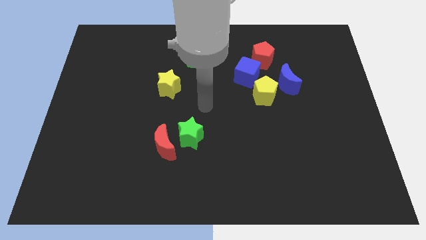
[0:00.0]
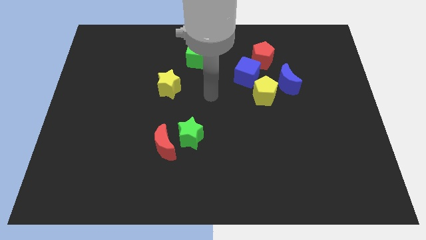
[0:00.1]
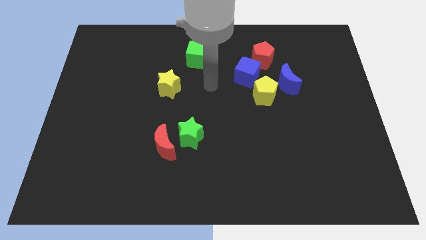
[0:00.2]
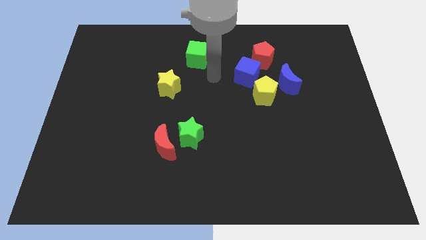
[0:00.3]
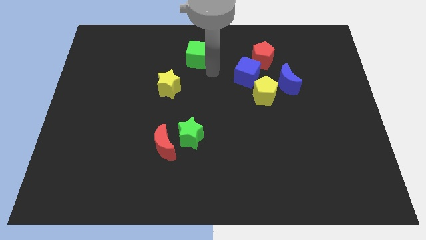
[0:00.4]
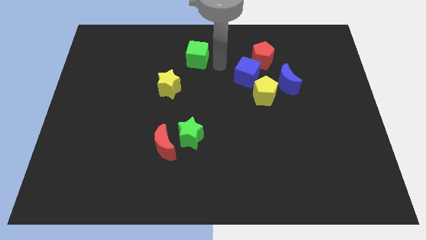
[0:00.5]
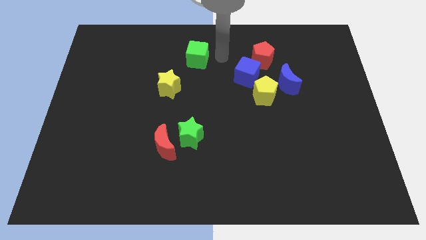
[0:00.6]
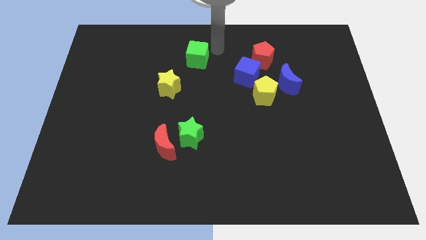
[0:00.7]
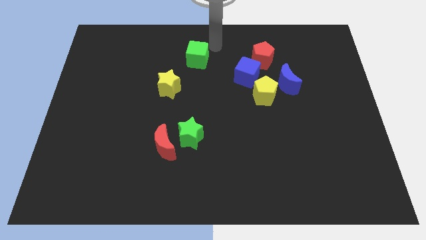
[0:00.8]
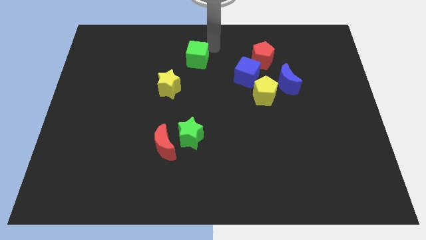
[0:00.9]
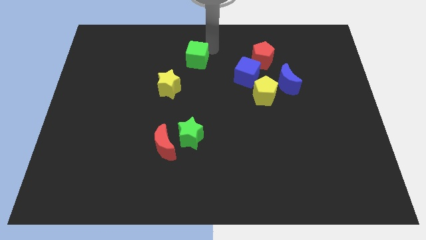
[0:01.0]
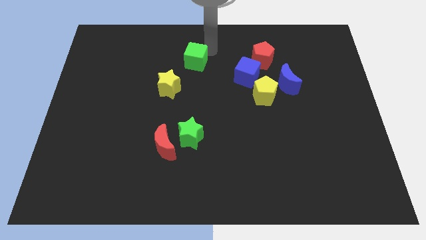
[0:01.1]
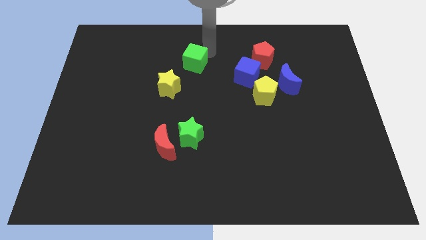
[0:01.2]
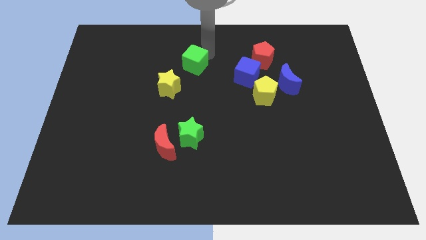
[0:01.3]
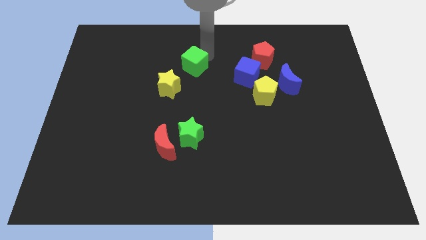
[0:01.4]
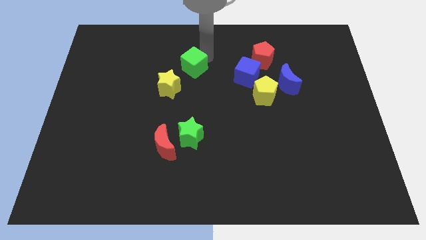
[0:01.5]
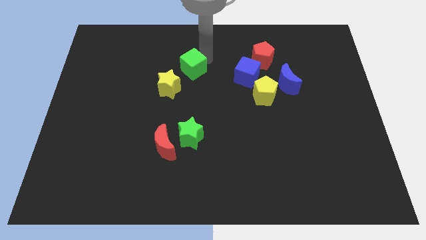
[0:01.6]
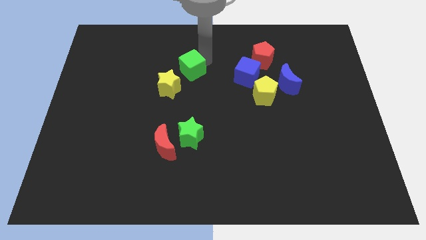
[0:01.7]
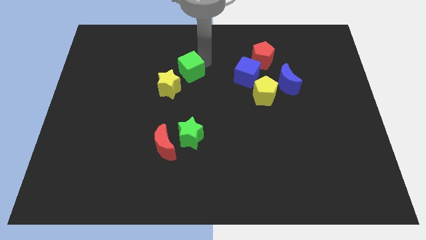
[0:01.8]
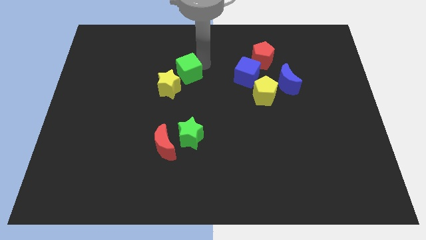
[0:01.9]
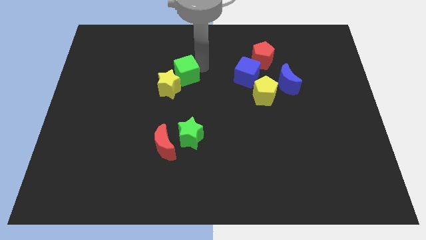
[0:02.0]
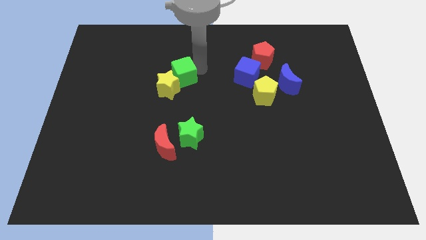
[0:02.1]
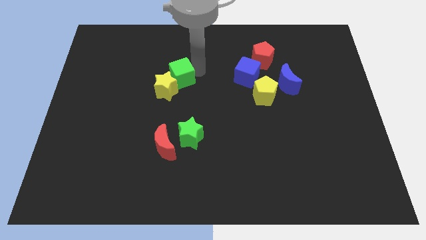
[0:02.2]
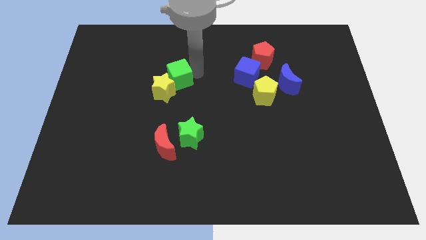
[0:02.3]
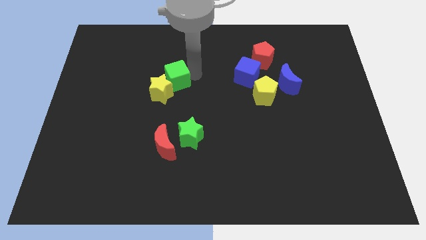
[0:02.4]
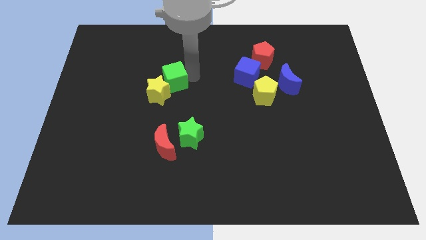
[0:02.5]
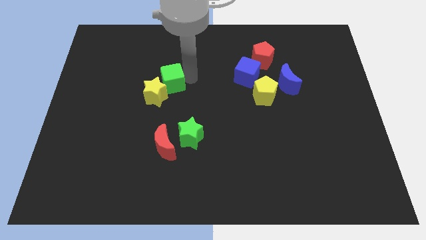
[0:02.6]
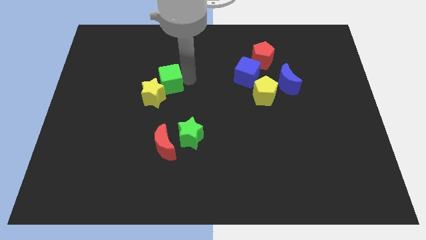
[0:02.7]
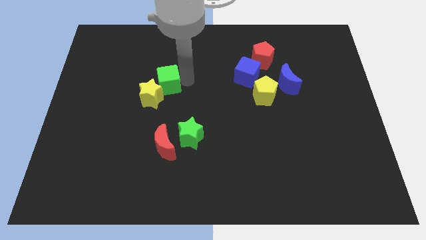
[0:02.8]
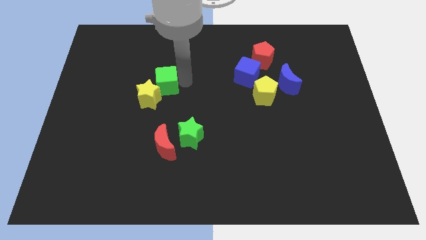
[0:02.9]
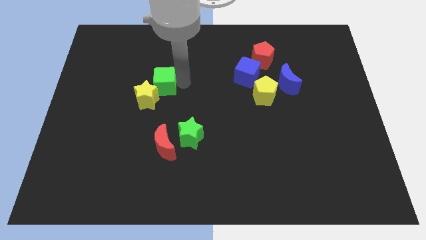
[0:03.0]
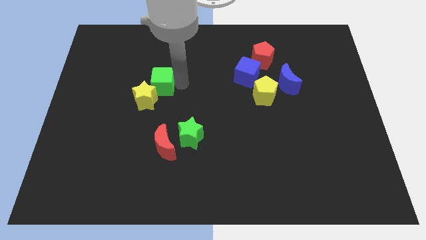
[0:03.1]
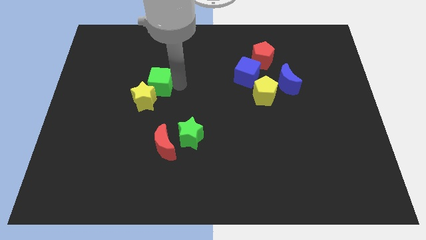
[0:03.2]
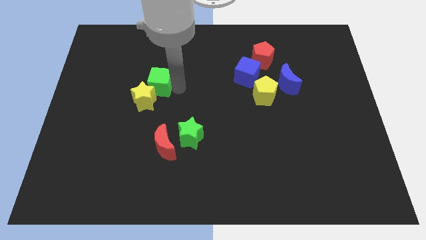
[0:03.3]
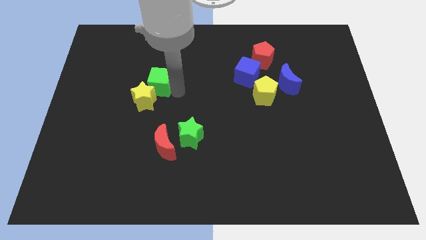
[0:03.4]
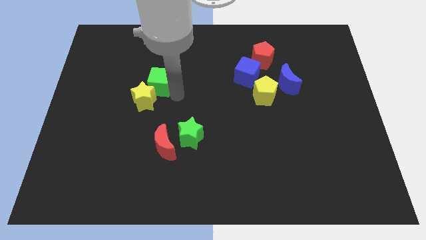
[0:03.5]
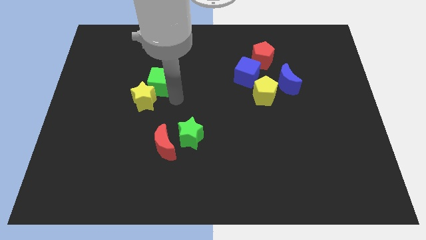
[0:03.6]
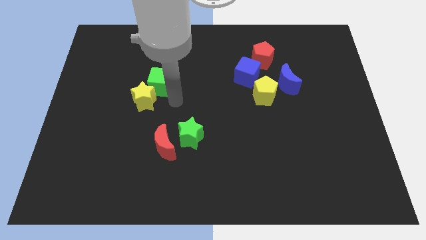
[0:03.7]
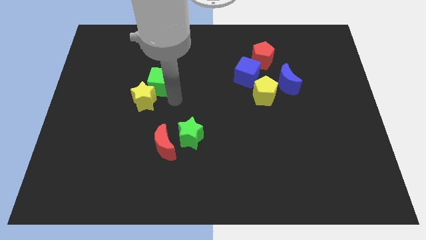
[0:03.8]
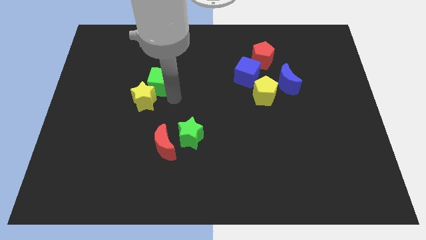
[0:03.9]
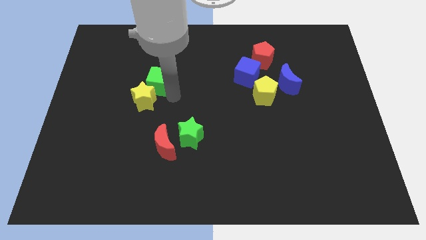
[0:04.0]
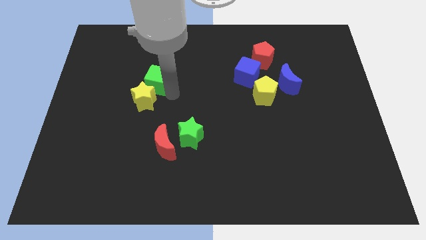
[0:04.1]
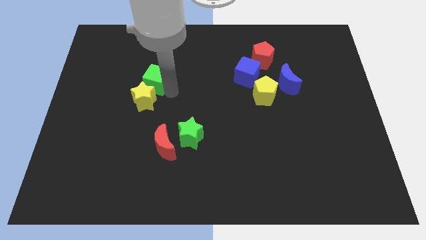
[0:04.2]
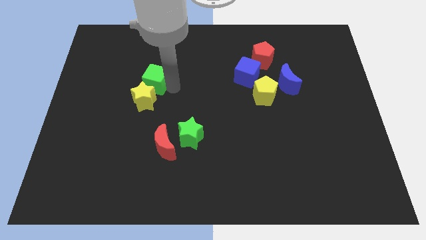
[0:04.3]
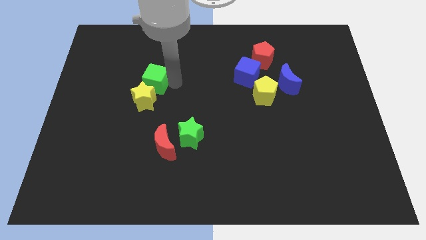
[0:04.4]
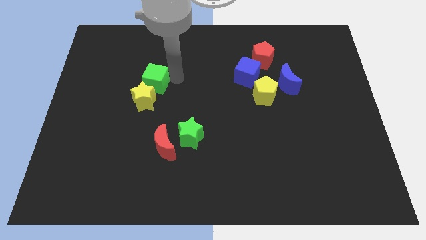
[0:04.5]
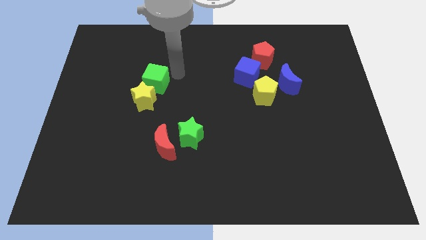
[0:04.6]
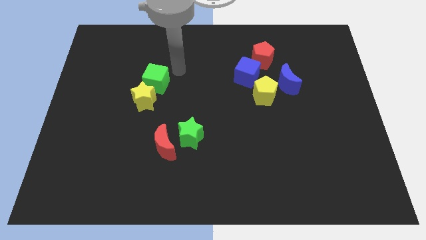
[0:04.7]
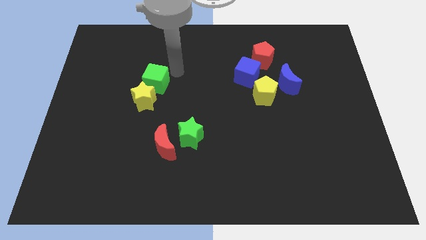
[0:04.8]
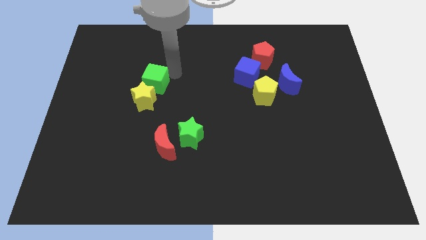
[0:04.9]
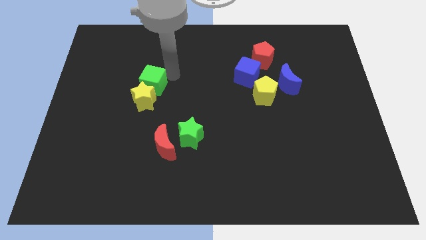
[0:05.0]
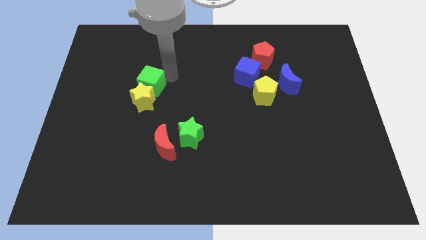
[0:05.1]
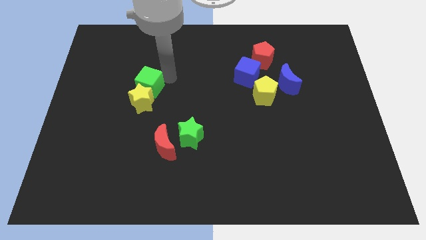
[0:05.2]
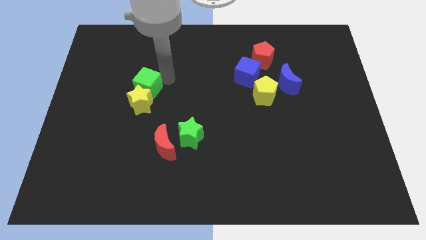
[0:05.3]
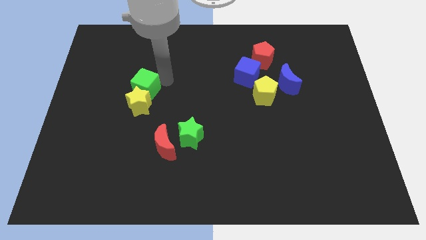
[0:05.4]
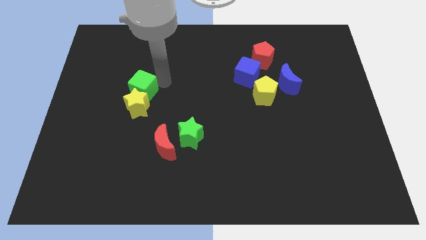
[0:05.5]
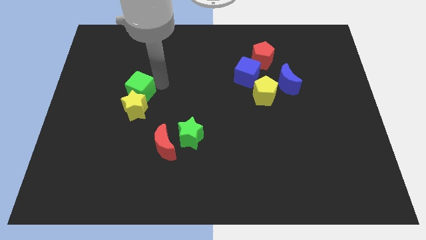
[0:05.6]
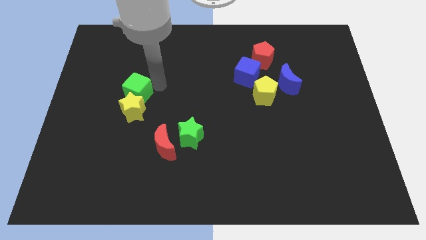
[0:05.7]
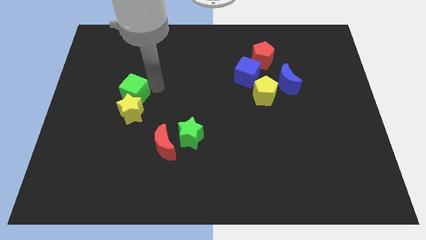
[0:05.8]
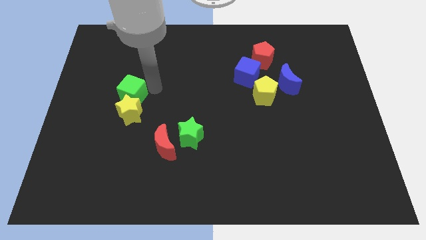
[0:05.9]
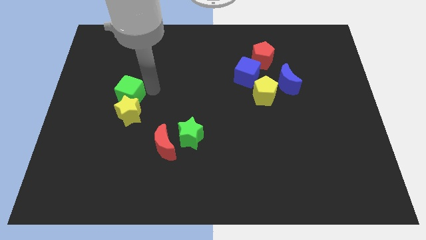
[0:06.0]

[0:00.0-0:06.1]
move the green cube diagonally downwards and to the left

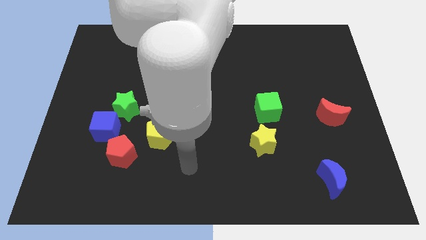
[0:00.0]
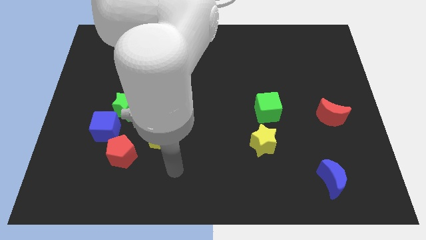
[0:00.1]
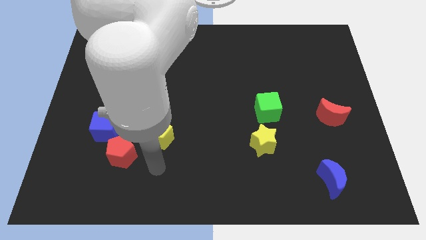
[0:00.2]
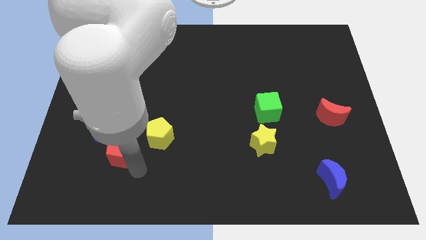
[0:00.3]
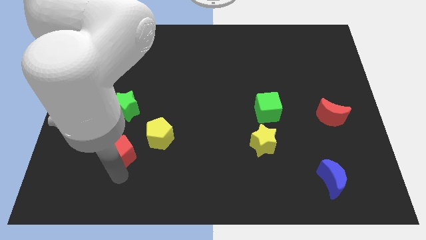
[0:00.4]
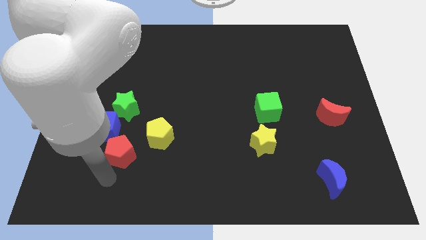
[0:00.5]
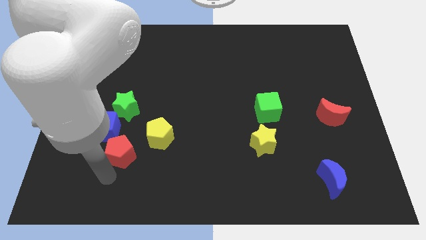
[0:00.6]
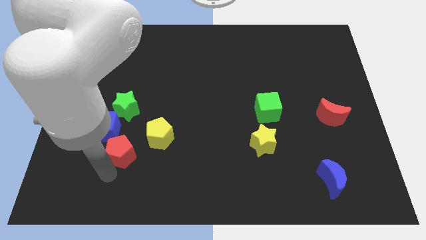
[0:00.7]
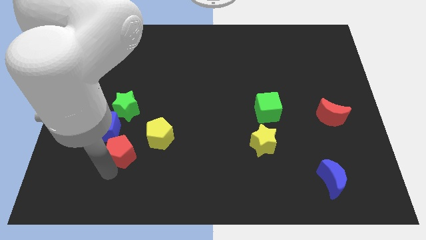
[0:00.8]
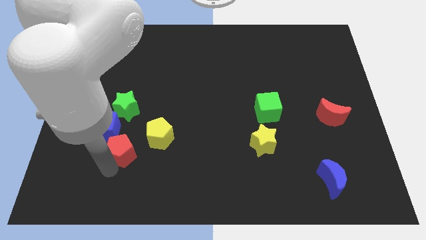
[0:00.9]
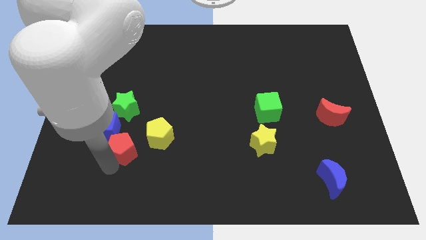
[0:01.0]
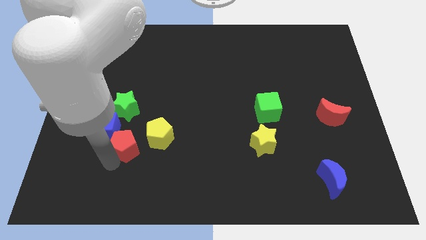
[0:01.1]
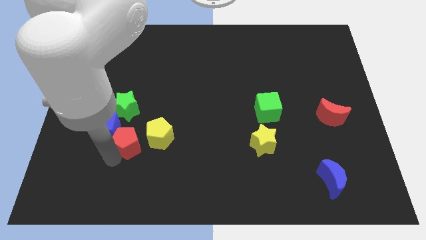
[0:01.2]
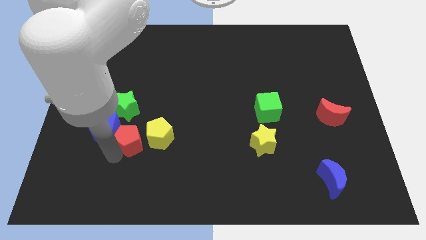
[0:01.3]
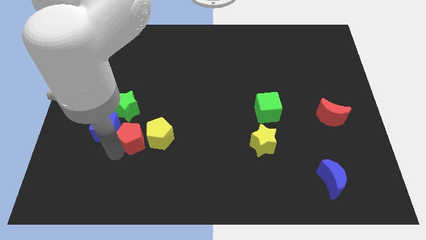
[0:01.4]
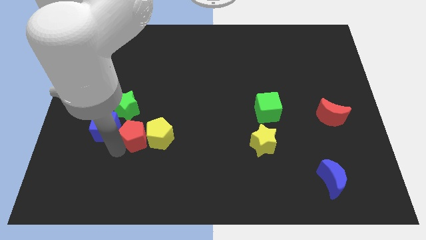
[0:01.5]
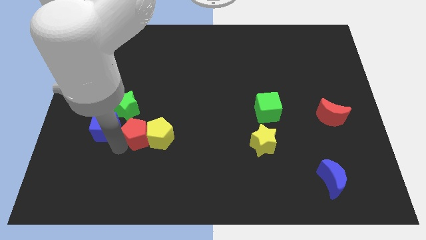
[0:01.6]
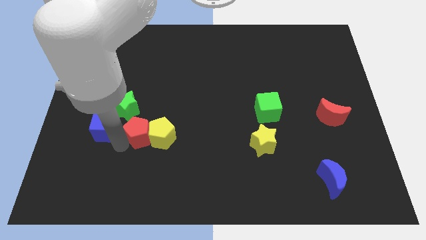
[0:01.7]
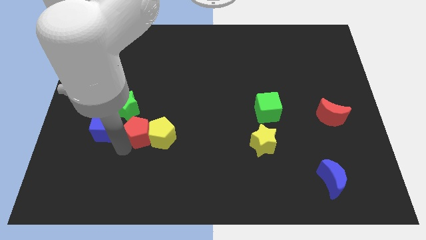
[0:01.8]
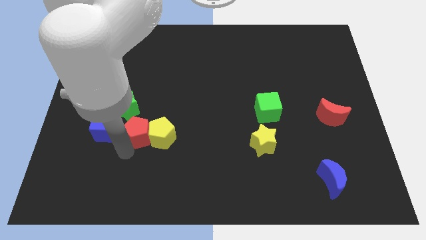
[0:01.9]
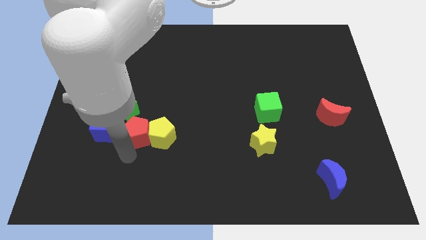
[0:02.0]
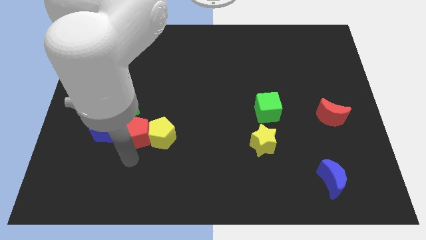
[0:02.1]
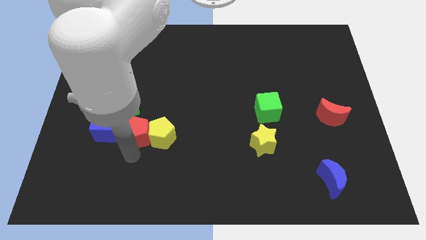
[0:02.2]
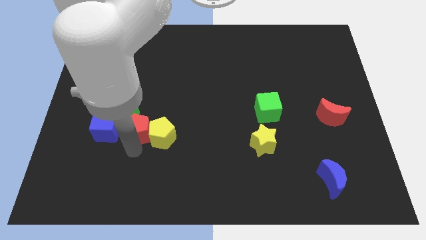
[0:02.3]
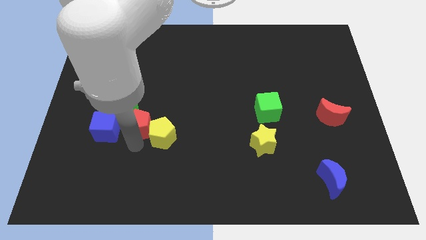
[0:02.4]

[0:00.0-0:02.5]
slide the red pentagon upwards and to the right diagonally a bit
